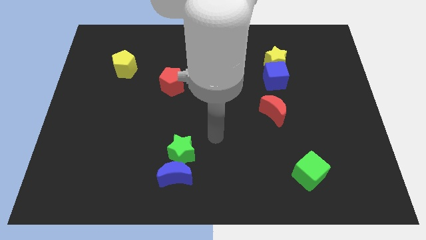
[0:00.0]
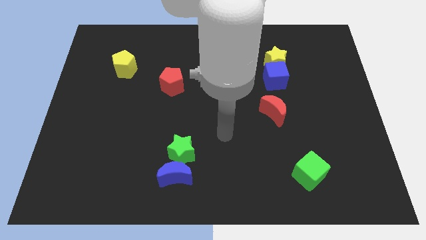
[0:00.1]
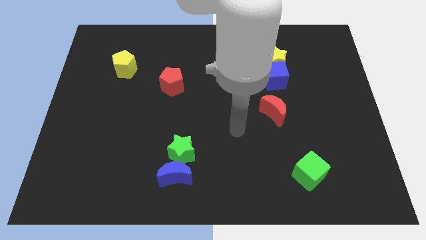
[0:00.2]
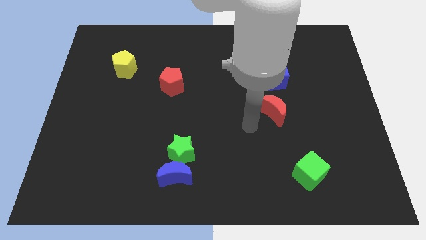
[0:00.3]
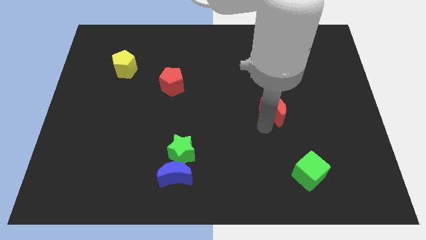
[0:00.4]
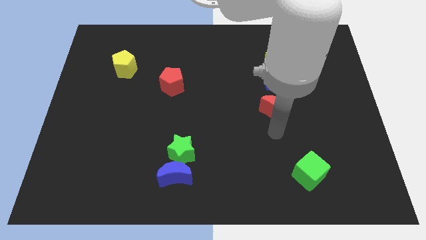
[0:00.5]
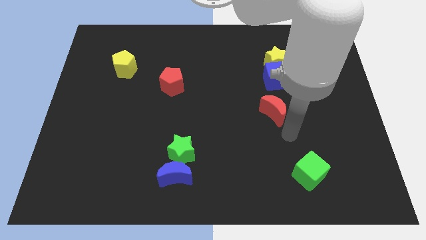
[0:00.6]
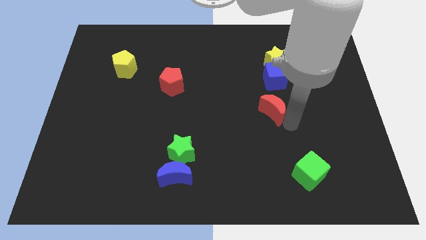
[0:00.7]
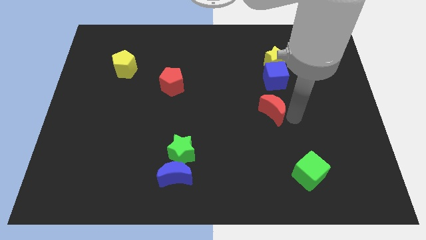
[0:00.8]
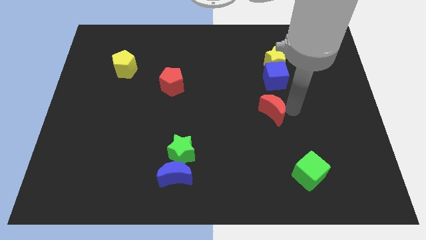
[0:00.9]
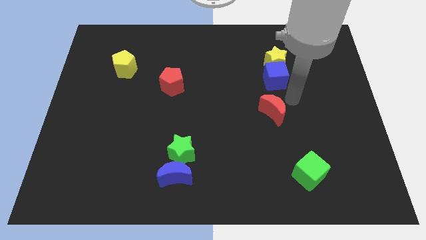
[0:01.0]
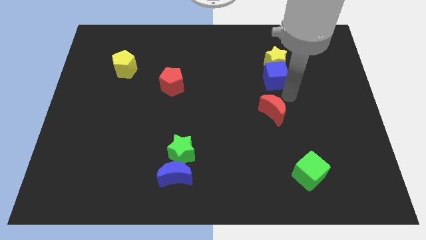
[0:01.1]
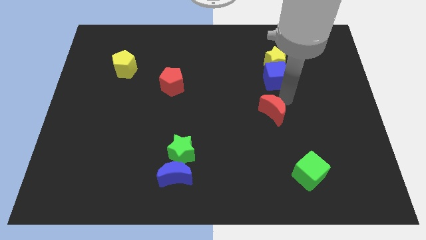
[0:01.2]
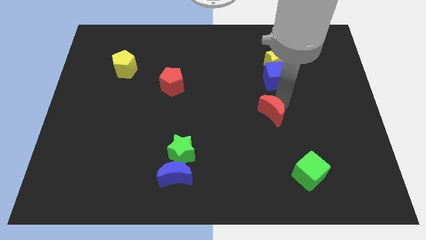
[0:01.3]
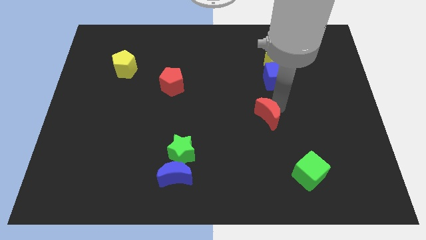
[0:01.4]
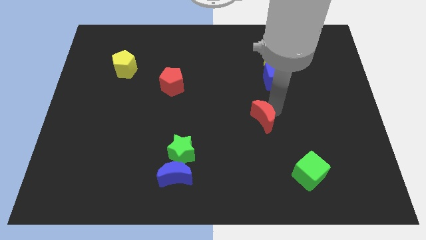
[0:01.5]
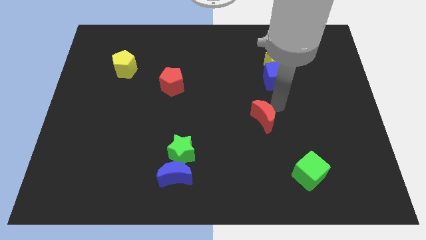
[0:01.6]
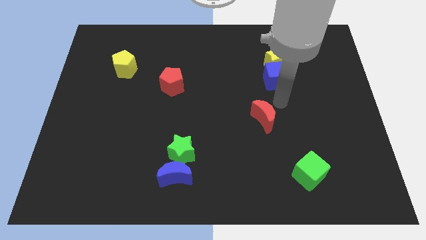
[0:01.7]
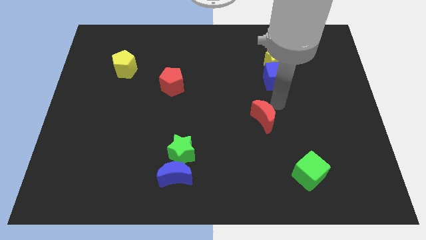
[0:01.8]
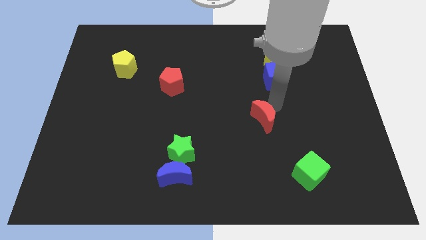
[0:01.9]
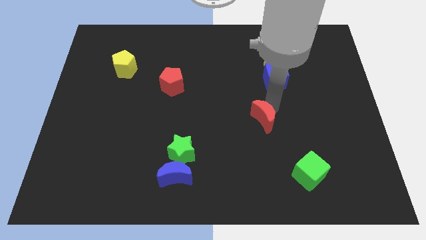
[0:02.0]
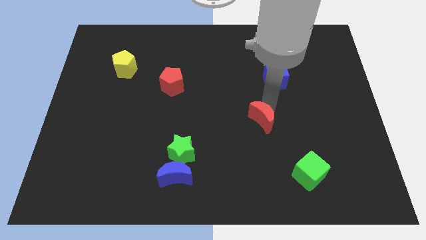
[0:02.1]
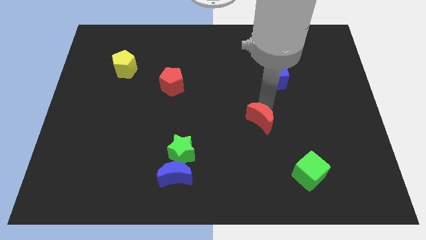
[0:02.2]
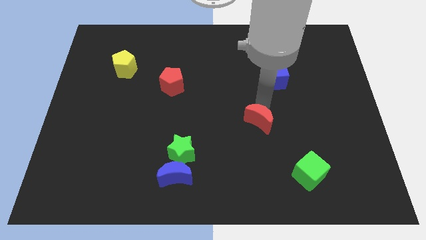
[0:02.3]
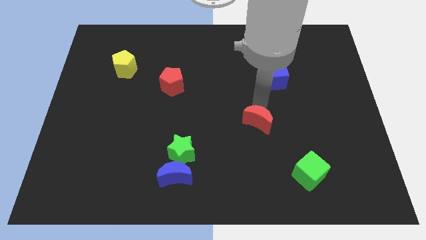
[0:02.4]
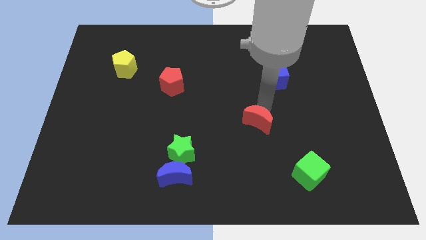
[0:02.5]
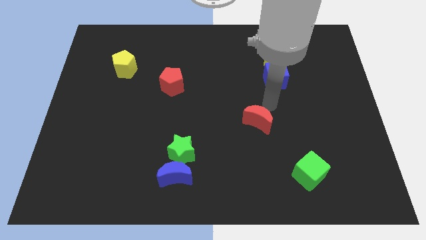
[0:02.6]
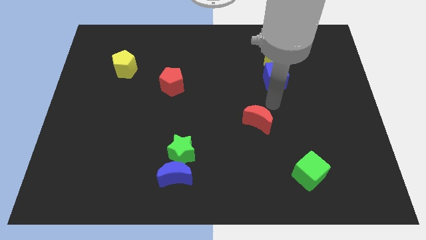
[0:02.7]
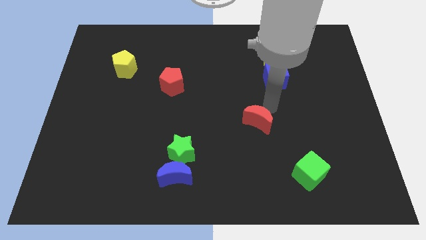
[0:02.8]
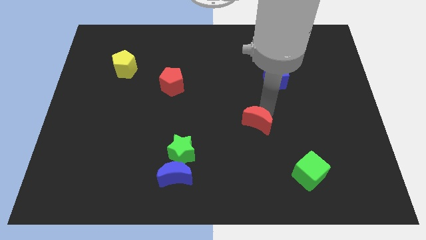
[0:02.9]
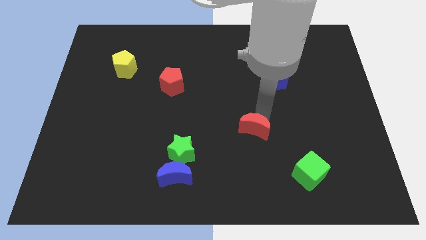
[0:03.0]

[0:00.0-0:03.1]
push the red moon diagonally downwards and left somewhat

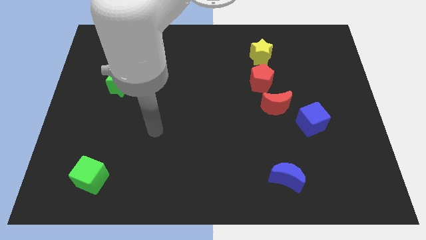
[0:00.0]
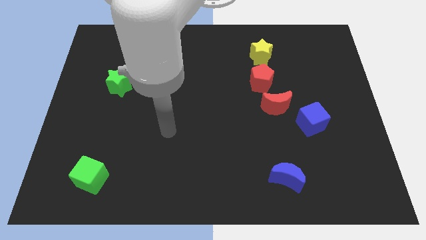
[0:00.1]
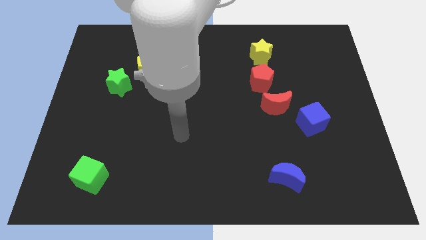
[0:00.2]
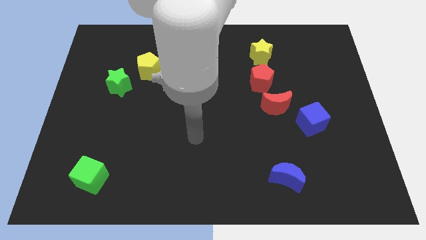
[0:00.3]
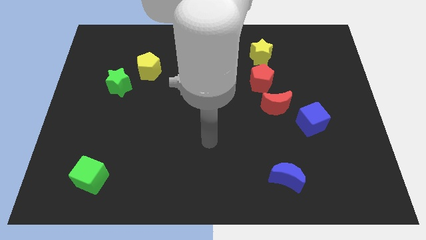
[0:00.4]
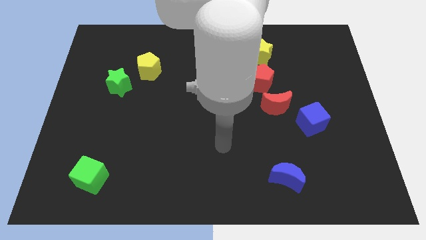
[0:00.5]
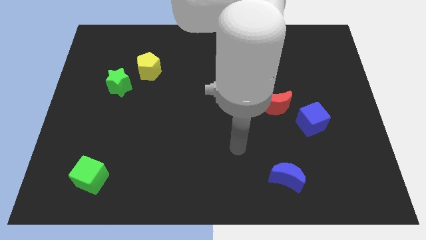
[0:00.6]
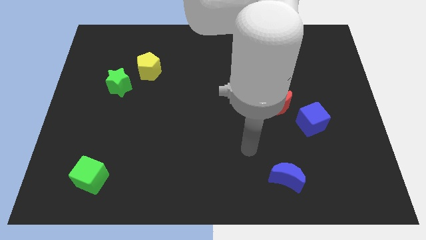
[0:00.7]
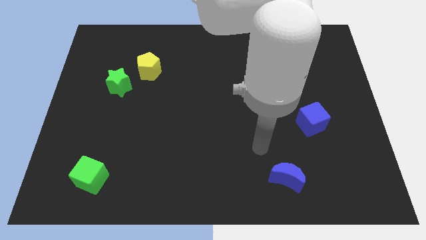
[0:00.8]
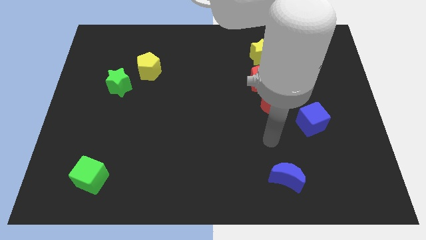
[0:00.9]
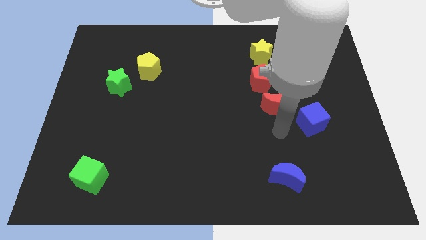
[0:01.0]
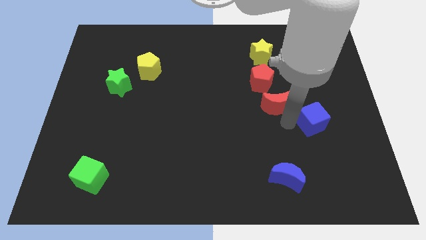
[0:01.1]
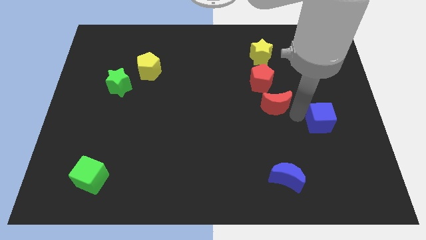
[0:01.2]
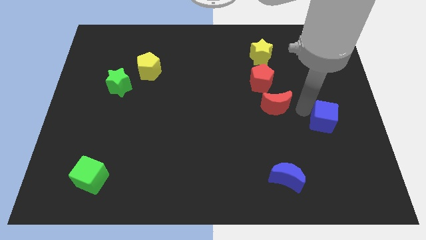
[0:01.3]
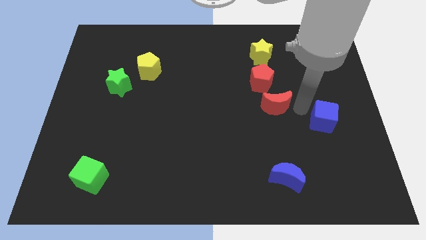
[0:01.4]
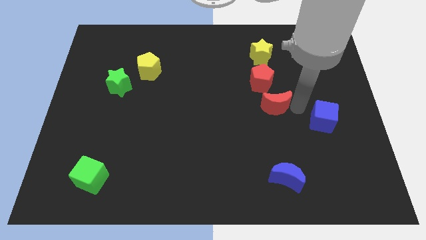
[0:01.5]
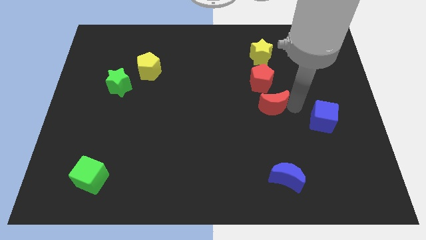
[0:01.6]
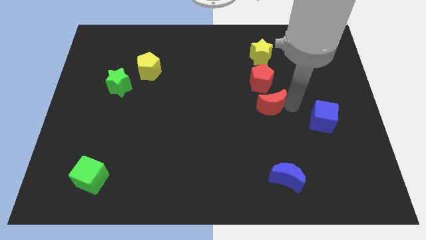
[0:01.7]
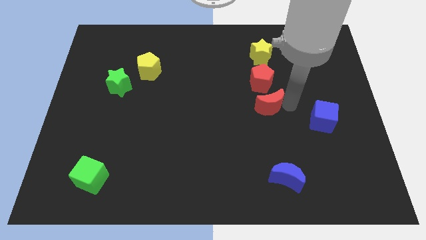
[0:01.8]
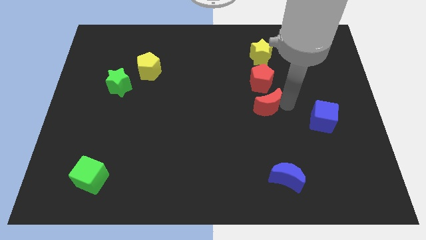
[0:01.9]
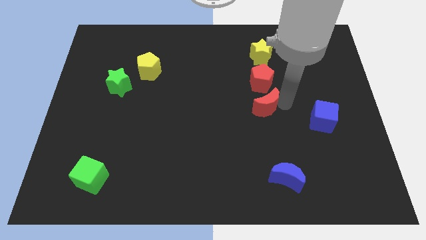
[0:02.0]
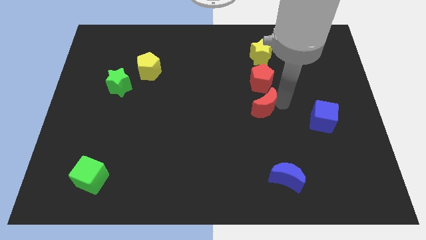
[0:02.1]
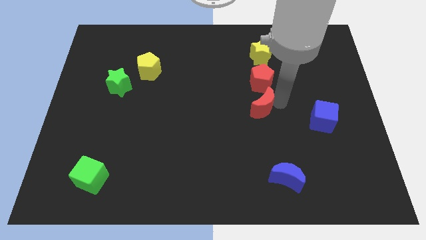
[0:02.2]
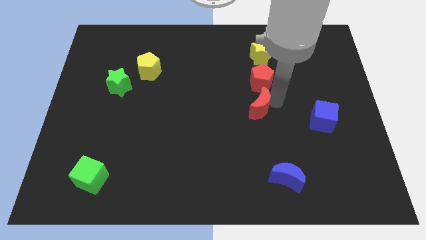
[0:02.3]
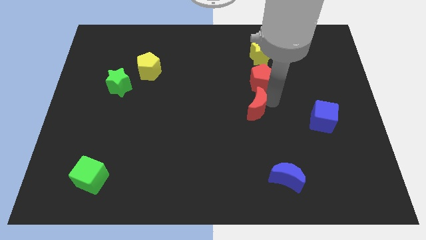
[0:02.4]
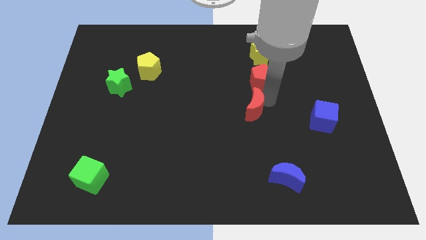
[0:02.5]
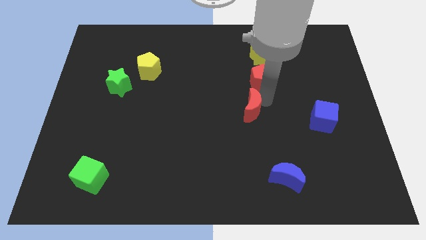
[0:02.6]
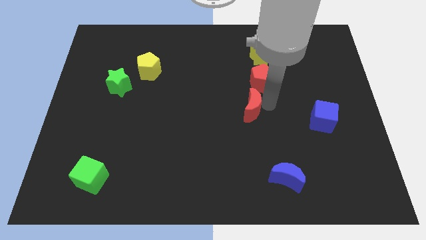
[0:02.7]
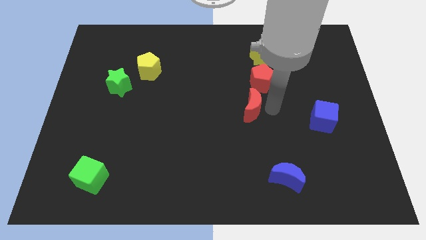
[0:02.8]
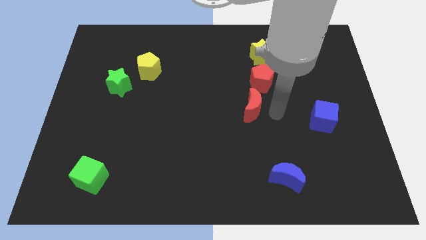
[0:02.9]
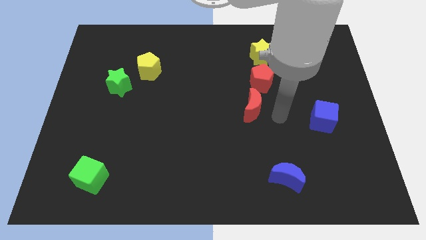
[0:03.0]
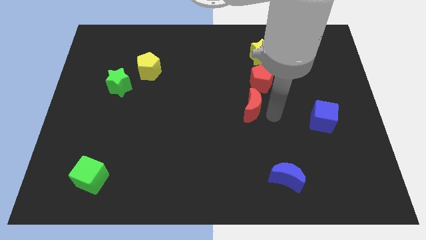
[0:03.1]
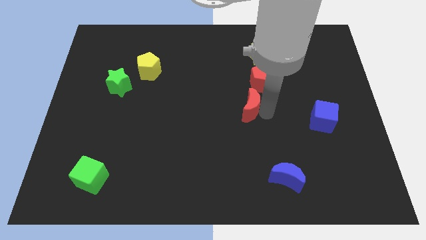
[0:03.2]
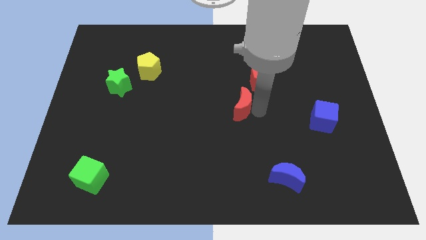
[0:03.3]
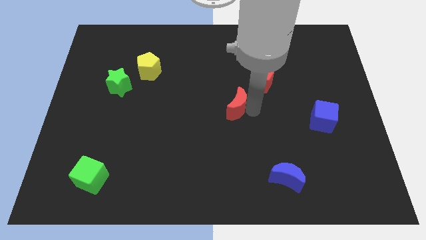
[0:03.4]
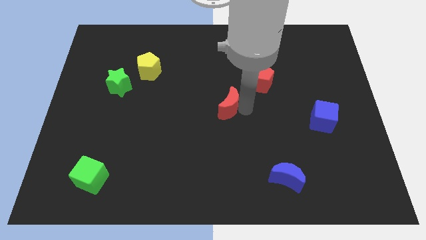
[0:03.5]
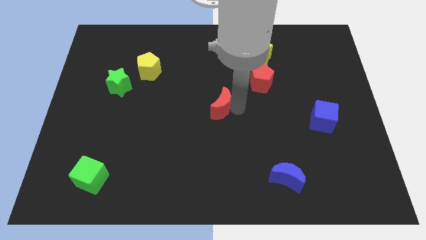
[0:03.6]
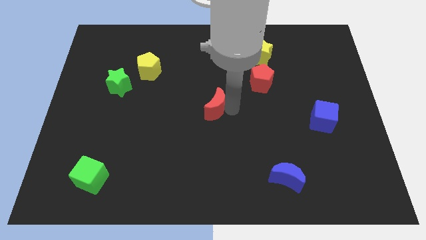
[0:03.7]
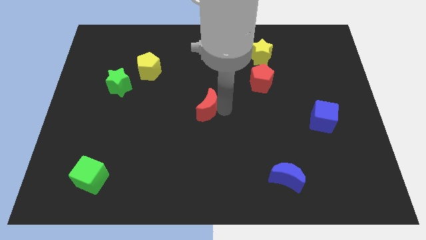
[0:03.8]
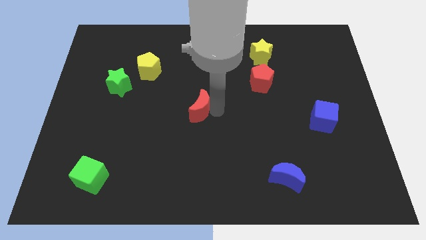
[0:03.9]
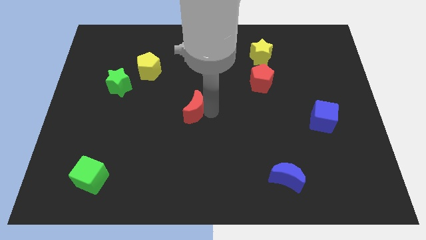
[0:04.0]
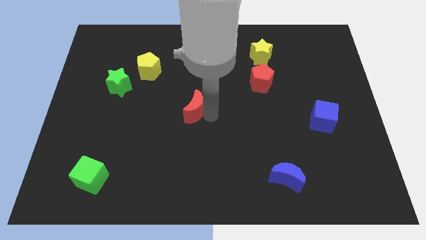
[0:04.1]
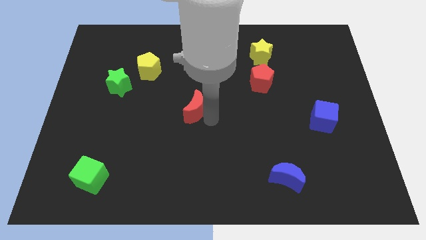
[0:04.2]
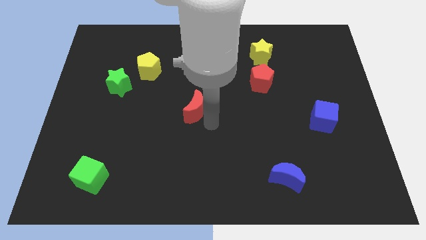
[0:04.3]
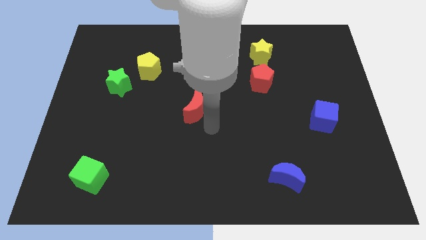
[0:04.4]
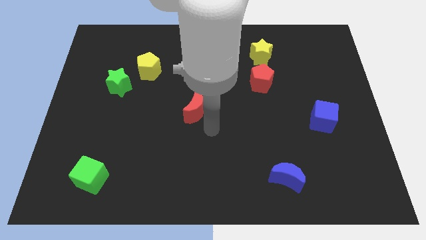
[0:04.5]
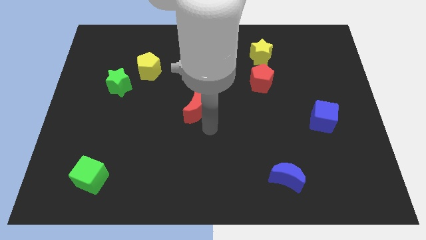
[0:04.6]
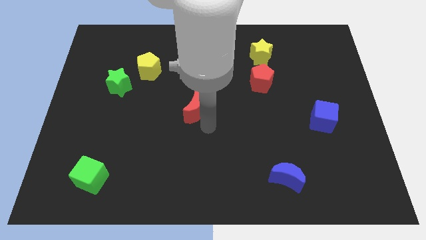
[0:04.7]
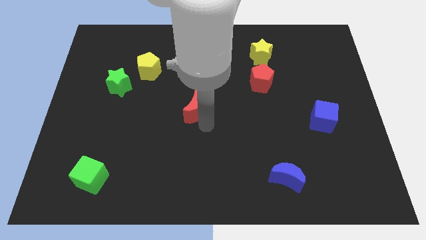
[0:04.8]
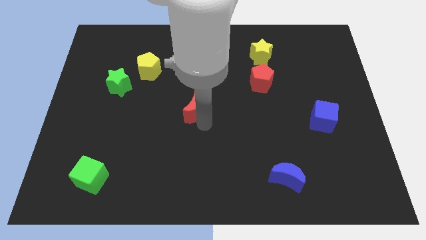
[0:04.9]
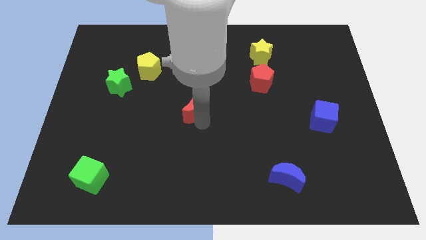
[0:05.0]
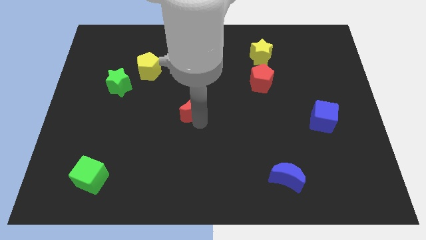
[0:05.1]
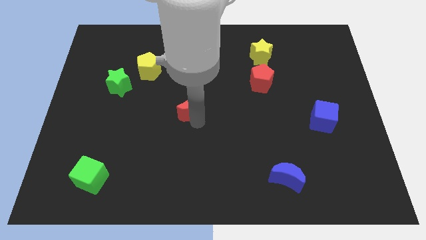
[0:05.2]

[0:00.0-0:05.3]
push the red moon left
